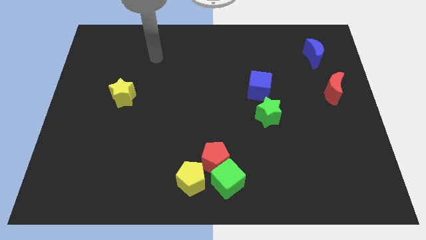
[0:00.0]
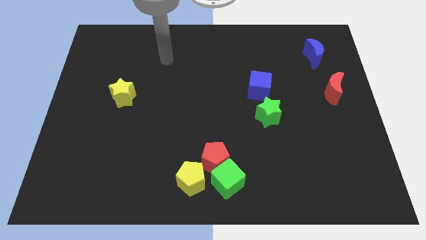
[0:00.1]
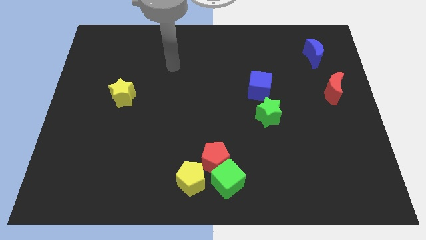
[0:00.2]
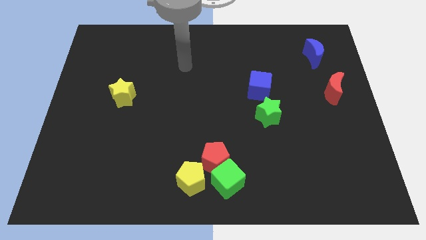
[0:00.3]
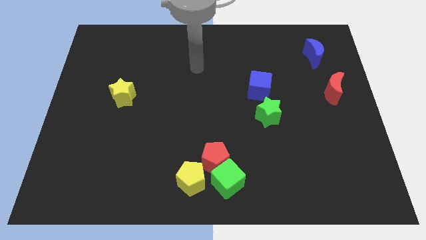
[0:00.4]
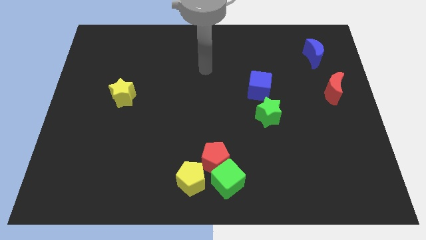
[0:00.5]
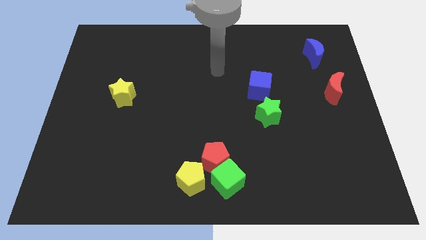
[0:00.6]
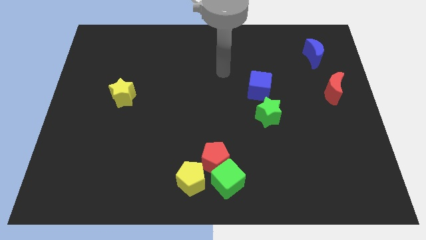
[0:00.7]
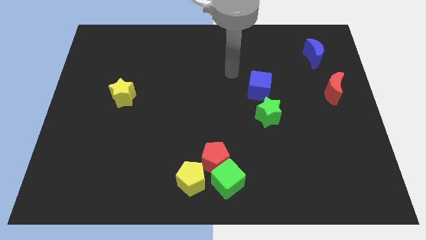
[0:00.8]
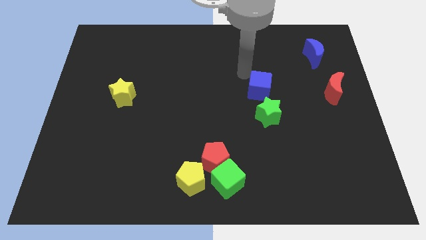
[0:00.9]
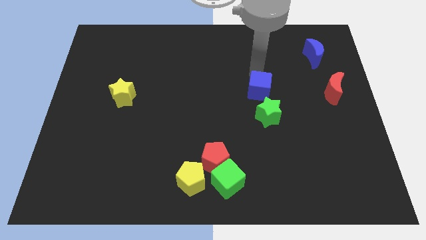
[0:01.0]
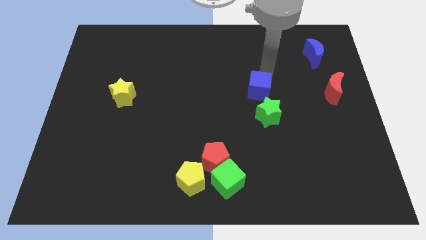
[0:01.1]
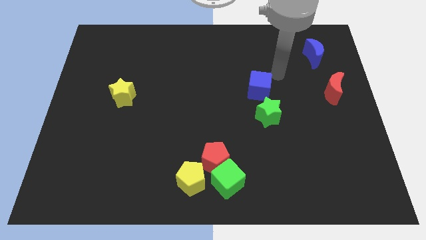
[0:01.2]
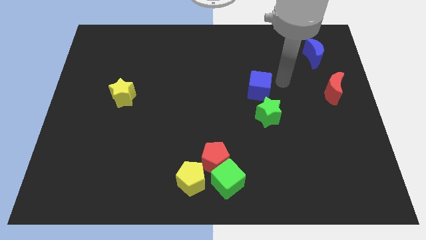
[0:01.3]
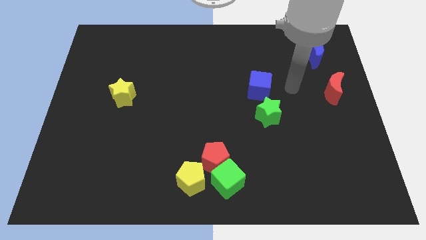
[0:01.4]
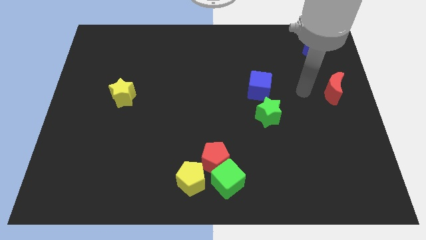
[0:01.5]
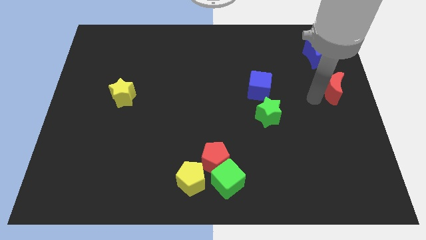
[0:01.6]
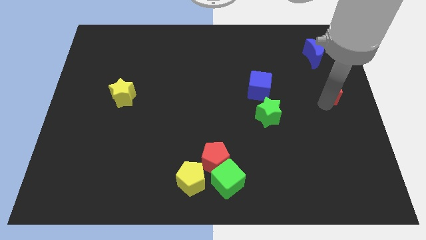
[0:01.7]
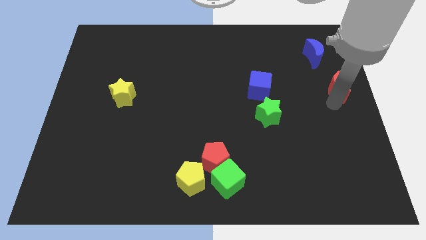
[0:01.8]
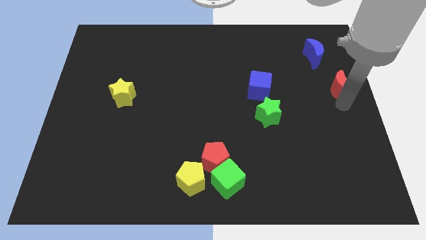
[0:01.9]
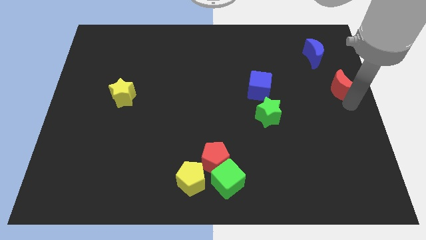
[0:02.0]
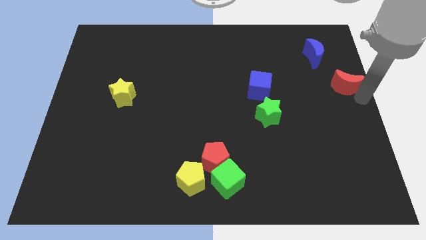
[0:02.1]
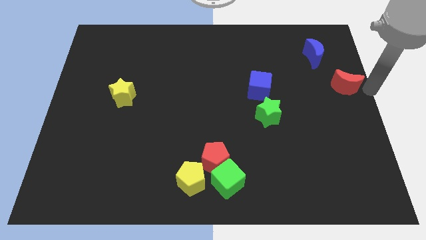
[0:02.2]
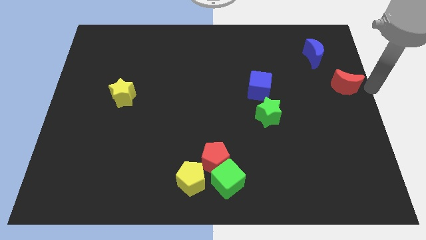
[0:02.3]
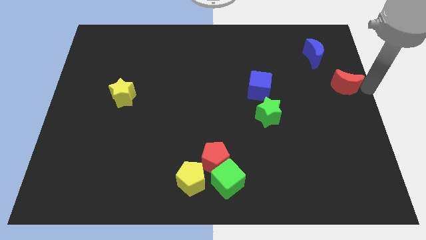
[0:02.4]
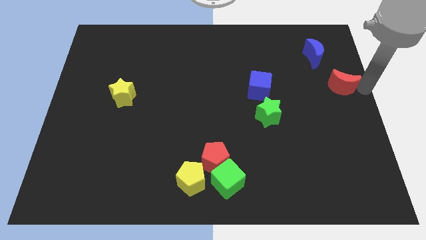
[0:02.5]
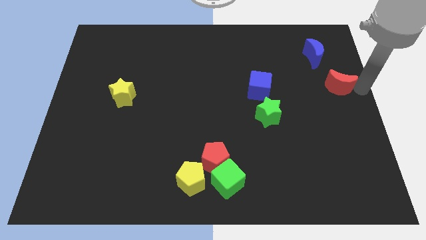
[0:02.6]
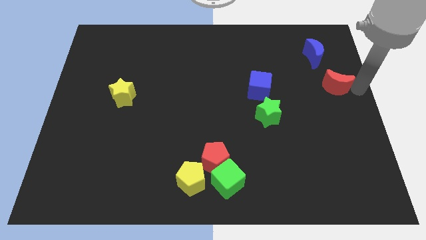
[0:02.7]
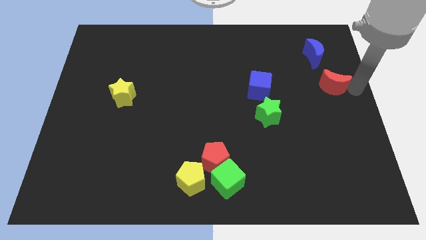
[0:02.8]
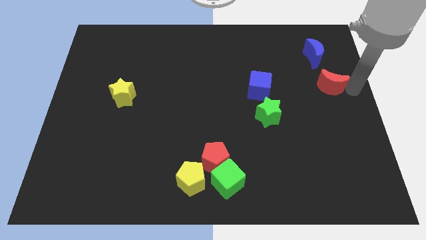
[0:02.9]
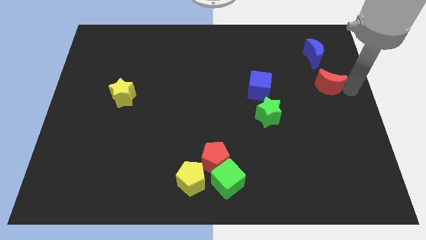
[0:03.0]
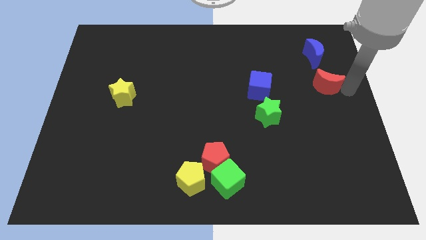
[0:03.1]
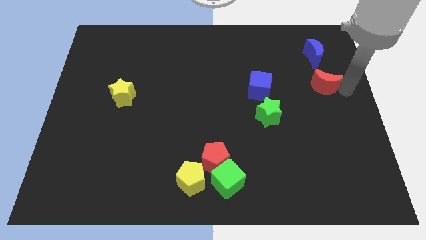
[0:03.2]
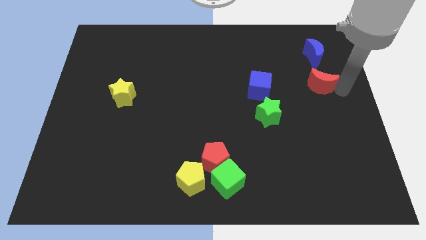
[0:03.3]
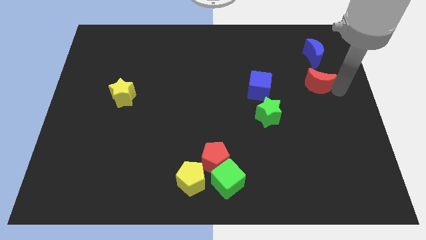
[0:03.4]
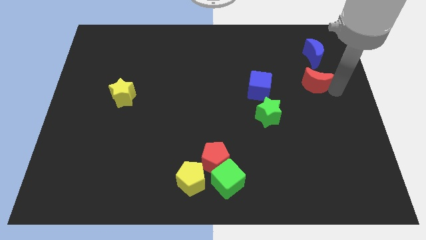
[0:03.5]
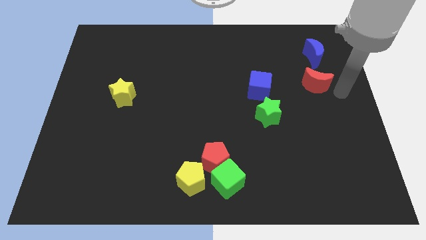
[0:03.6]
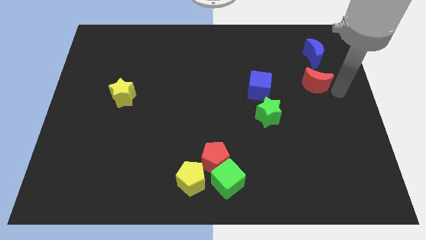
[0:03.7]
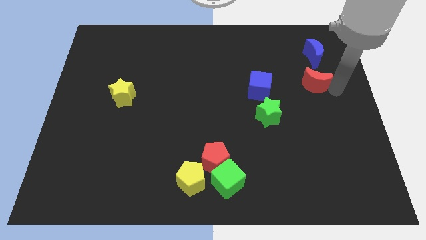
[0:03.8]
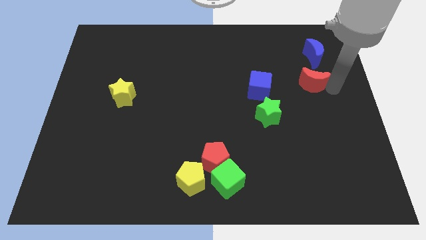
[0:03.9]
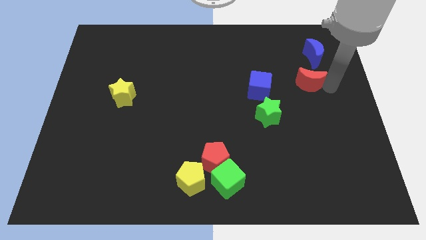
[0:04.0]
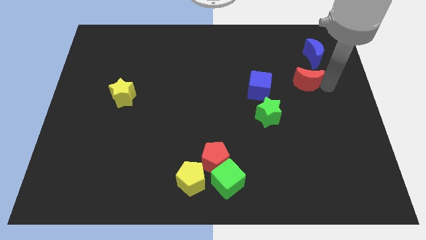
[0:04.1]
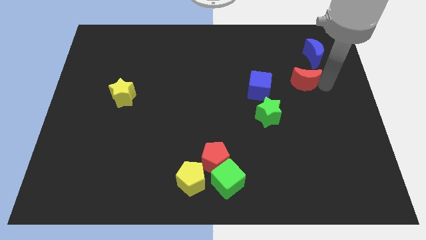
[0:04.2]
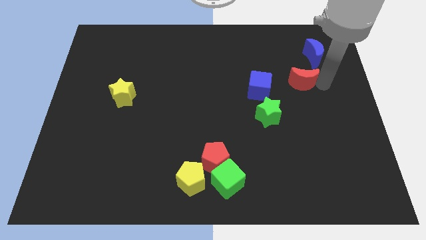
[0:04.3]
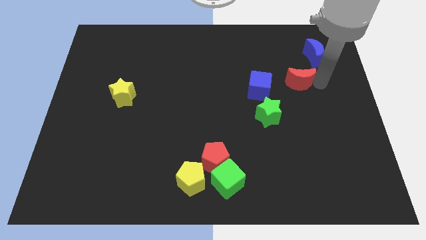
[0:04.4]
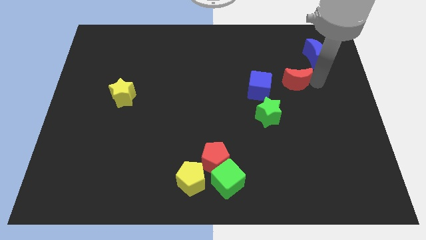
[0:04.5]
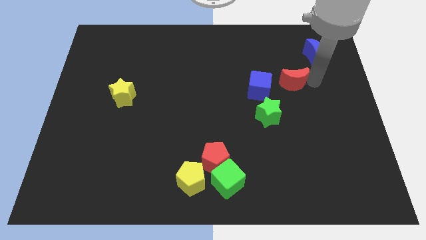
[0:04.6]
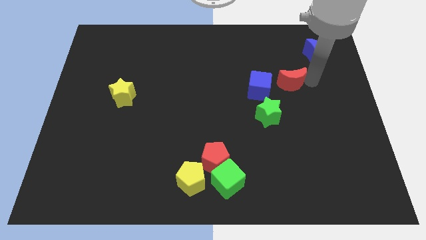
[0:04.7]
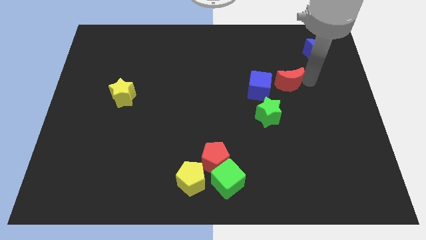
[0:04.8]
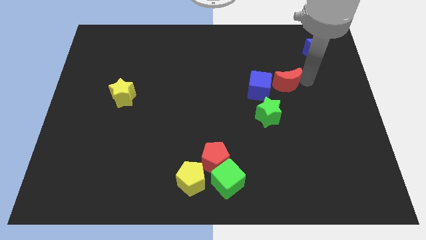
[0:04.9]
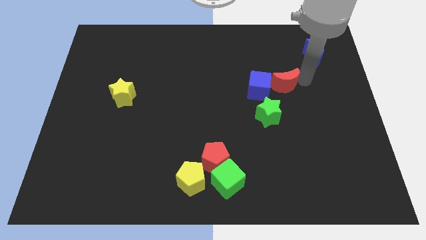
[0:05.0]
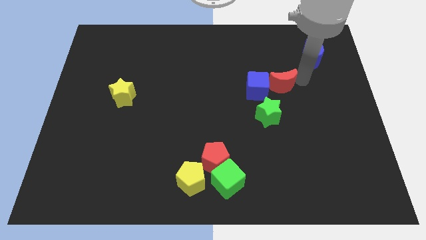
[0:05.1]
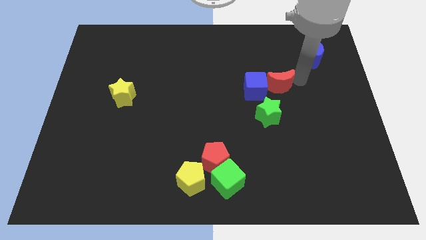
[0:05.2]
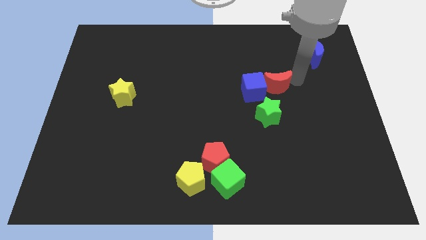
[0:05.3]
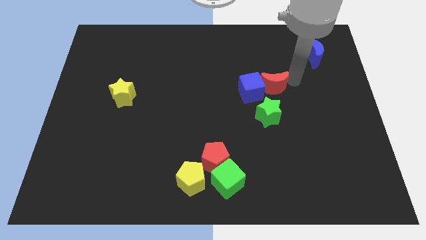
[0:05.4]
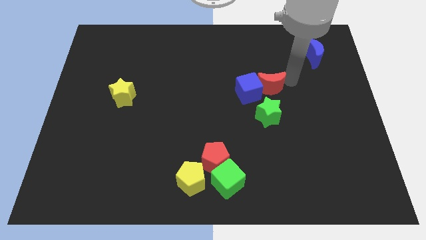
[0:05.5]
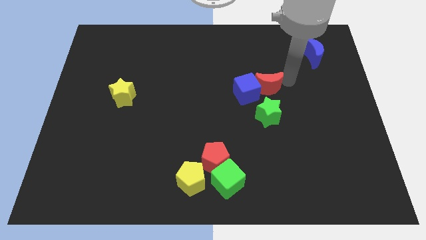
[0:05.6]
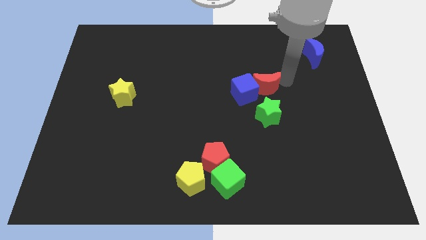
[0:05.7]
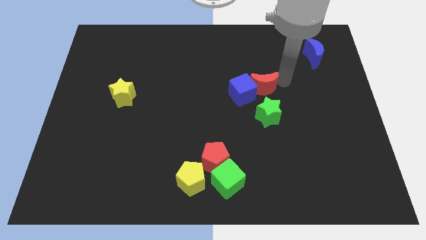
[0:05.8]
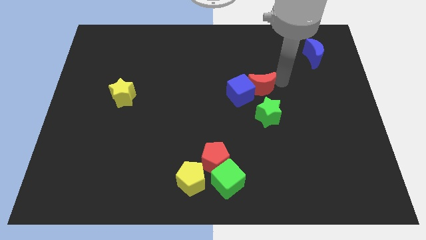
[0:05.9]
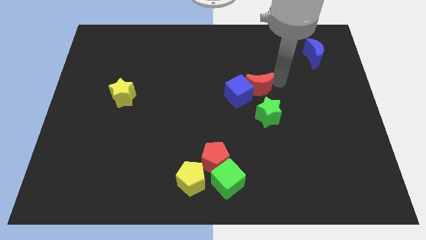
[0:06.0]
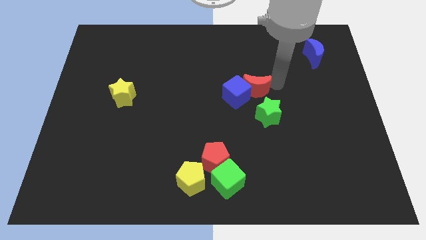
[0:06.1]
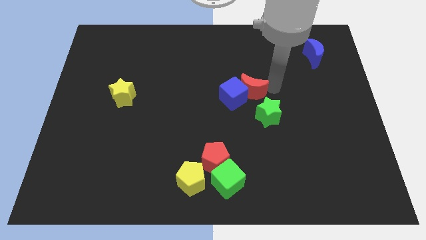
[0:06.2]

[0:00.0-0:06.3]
slide the red moon left

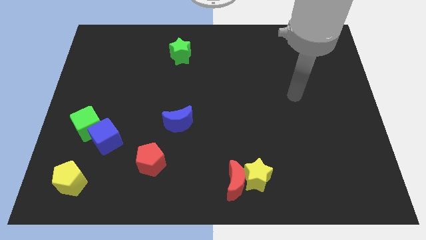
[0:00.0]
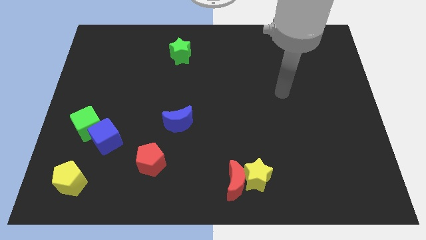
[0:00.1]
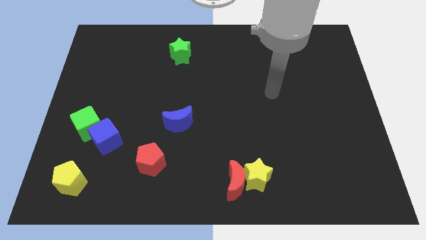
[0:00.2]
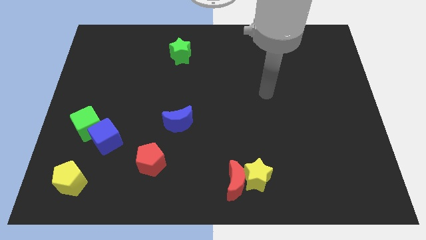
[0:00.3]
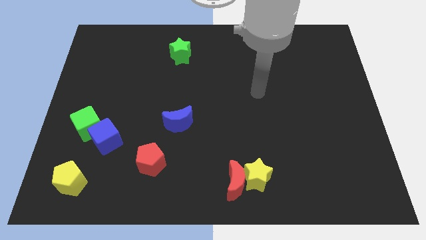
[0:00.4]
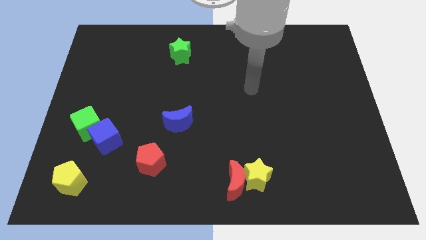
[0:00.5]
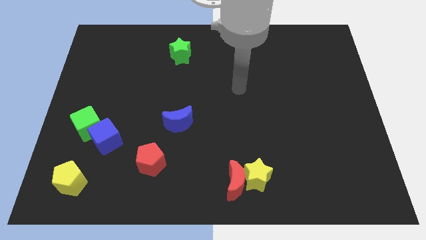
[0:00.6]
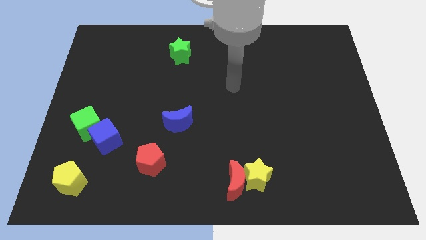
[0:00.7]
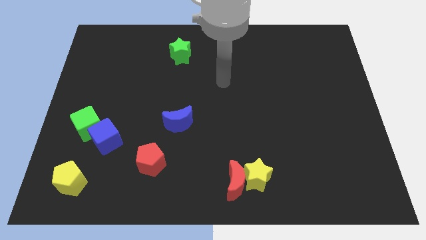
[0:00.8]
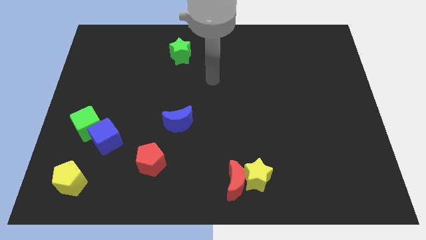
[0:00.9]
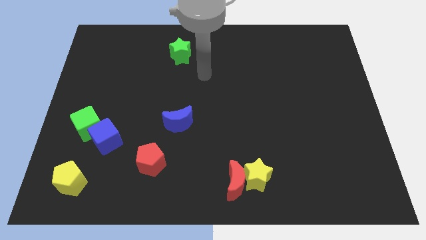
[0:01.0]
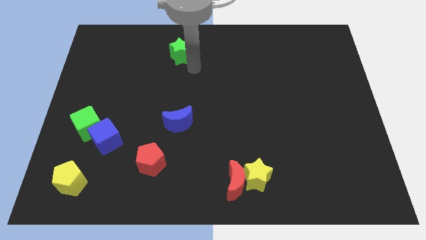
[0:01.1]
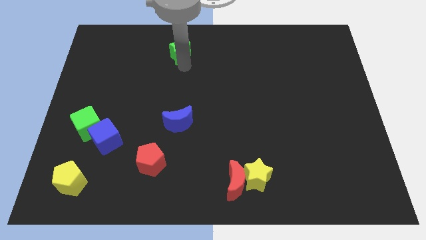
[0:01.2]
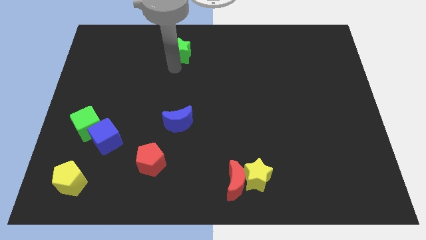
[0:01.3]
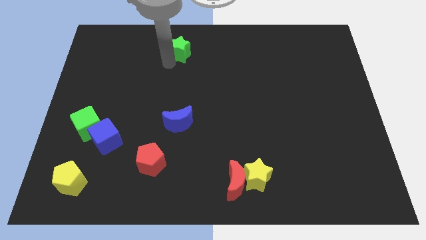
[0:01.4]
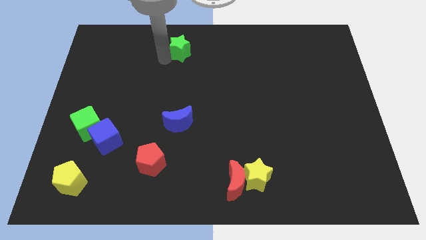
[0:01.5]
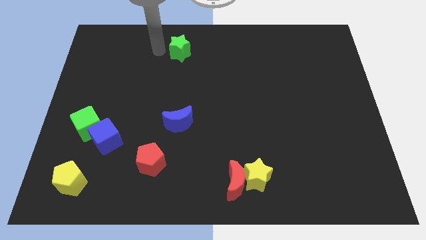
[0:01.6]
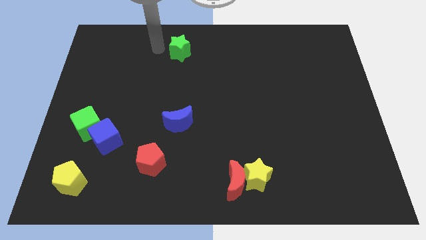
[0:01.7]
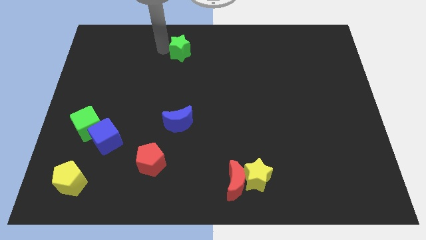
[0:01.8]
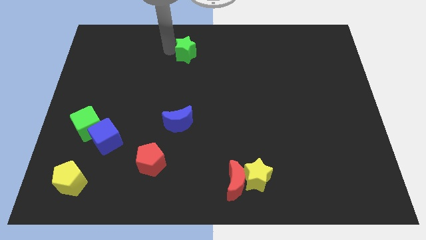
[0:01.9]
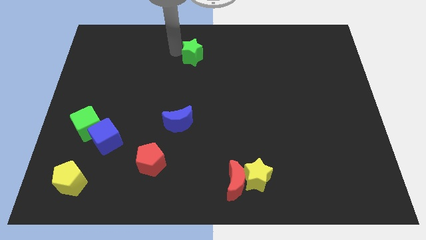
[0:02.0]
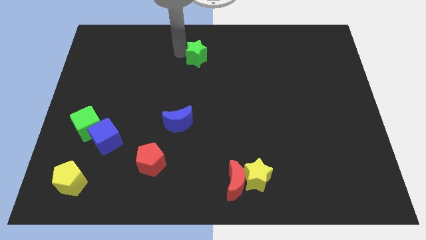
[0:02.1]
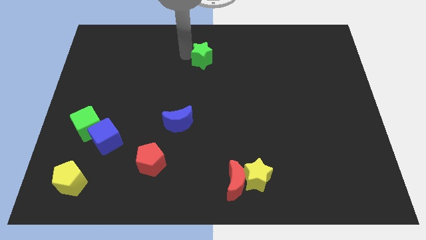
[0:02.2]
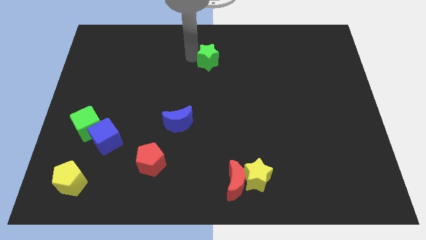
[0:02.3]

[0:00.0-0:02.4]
move the green star a bit right
